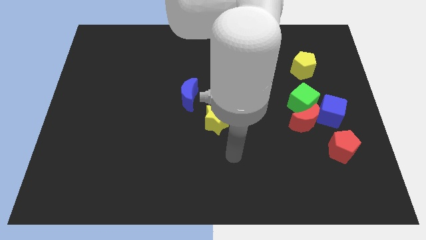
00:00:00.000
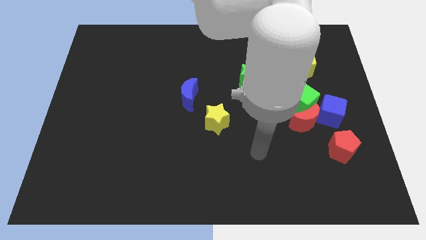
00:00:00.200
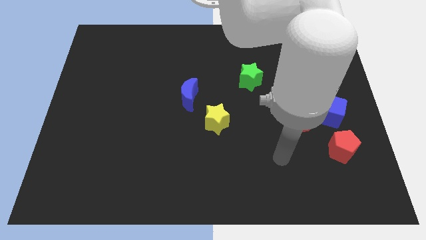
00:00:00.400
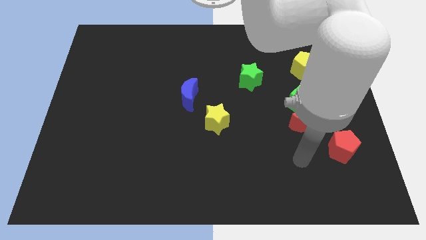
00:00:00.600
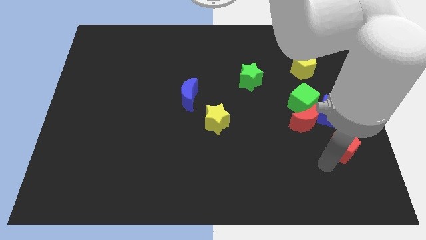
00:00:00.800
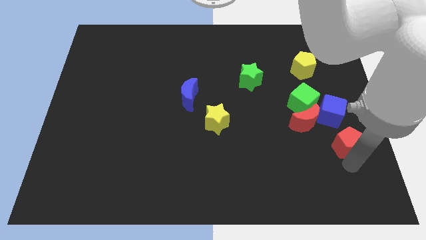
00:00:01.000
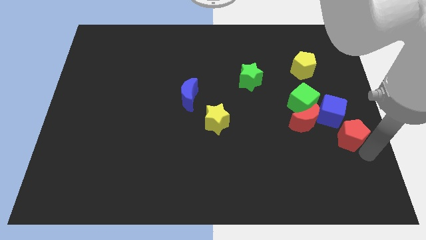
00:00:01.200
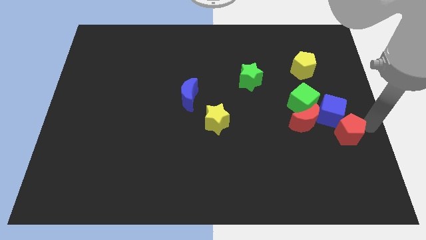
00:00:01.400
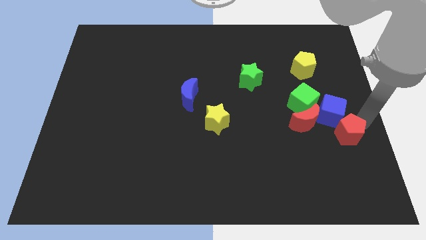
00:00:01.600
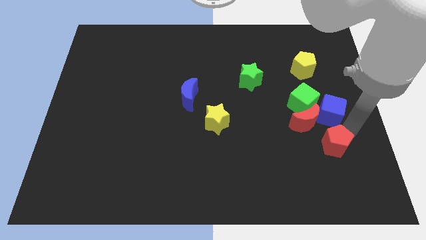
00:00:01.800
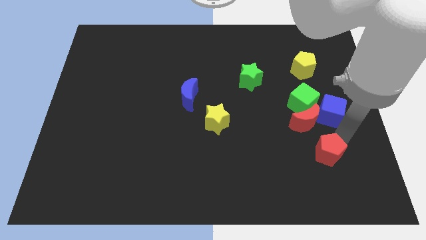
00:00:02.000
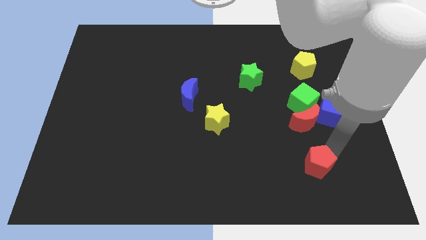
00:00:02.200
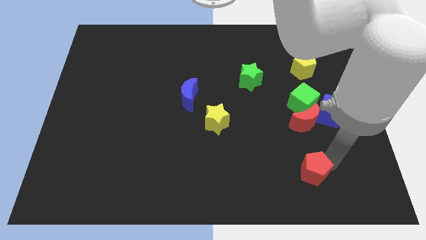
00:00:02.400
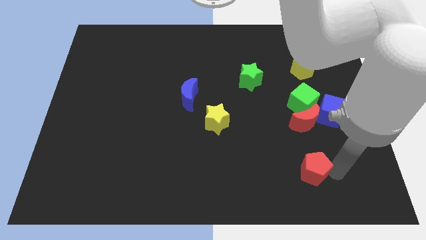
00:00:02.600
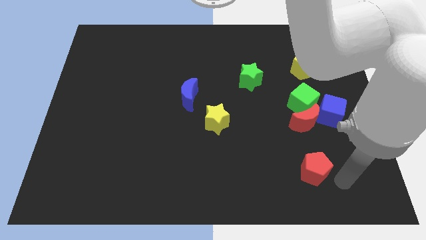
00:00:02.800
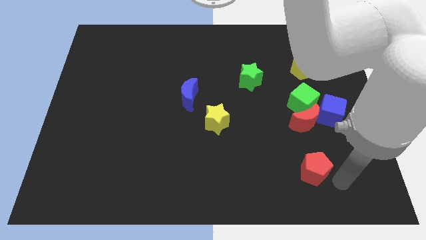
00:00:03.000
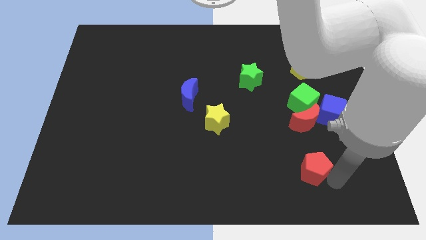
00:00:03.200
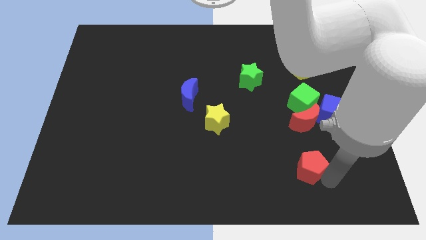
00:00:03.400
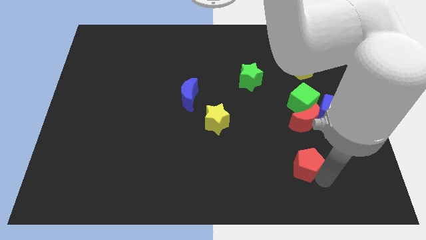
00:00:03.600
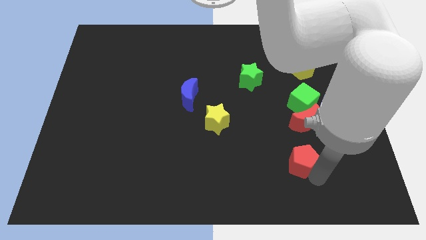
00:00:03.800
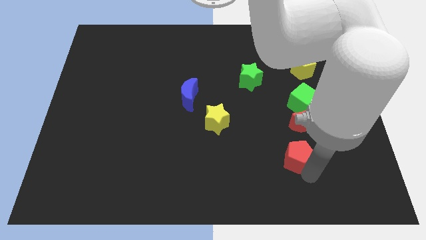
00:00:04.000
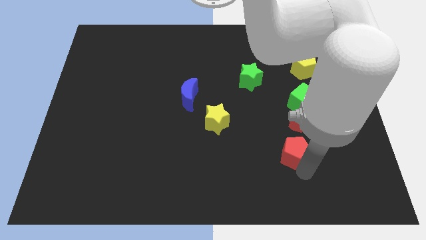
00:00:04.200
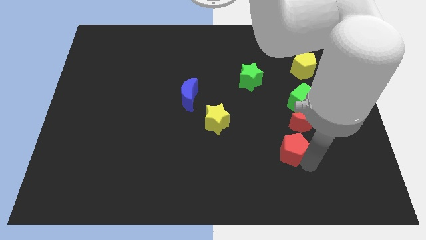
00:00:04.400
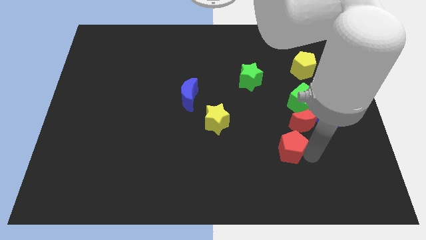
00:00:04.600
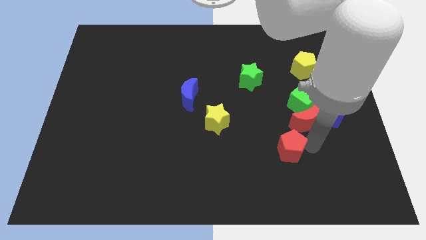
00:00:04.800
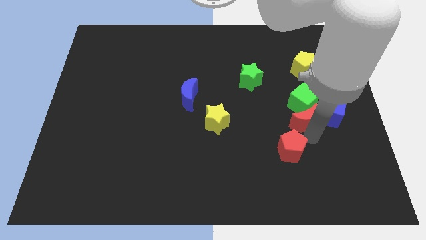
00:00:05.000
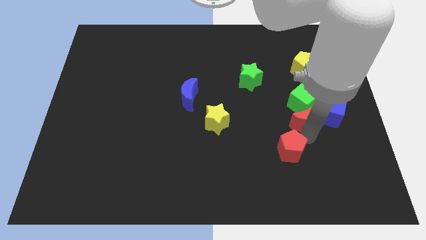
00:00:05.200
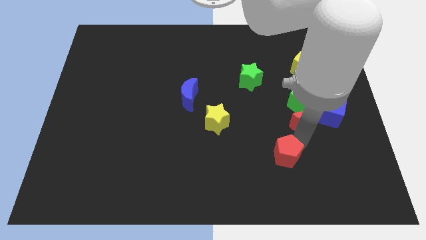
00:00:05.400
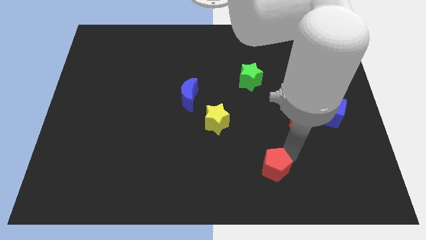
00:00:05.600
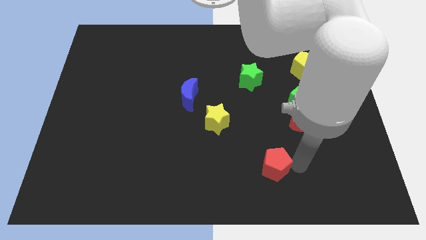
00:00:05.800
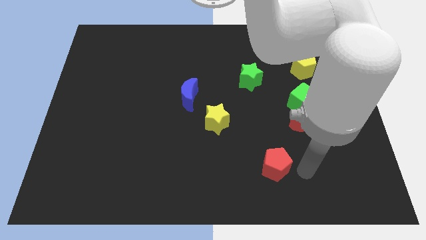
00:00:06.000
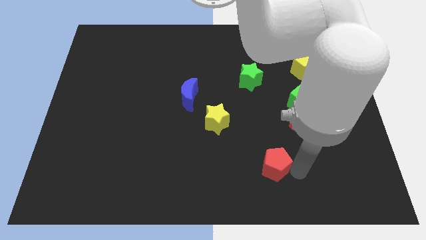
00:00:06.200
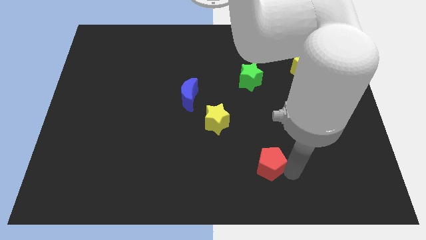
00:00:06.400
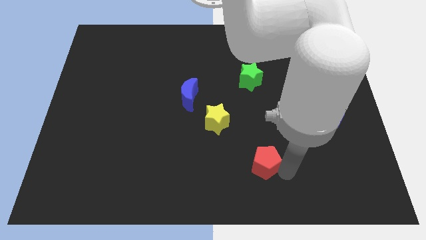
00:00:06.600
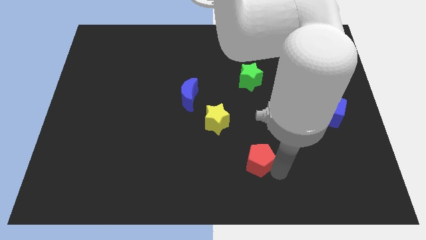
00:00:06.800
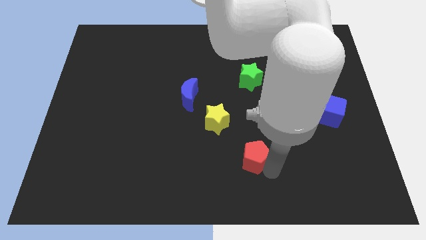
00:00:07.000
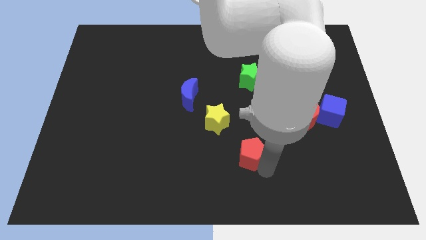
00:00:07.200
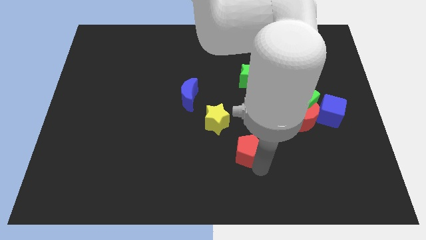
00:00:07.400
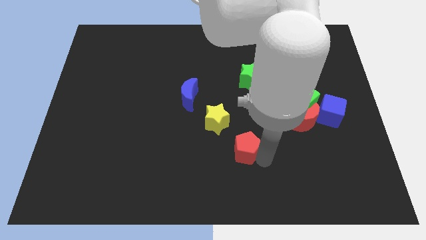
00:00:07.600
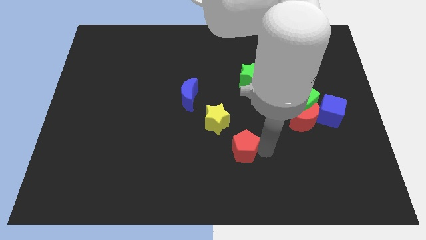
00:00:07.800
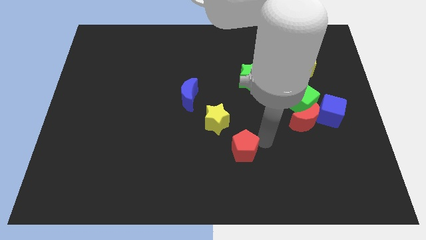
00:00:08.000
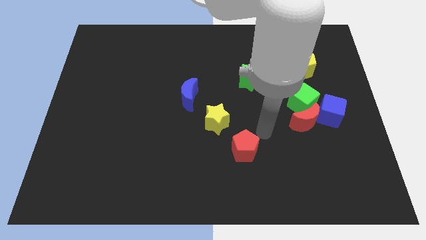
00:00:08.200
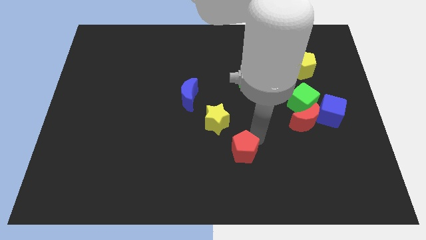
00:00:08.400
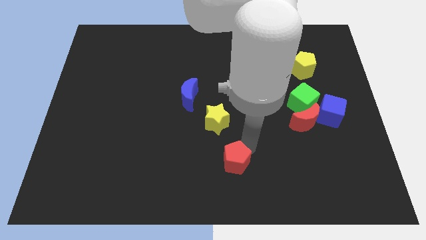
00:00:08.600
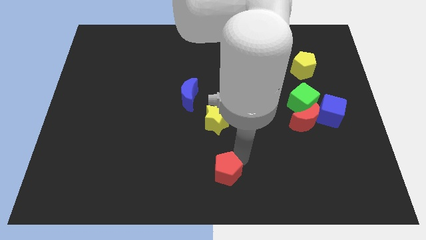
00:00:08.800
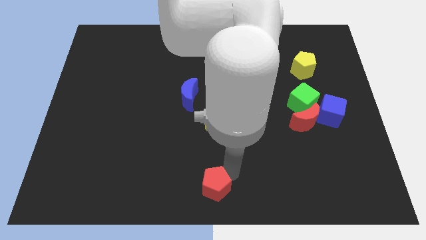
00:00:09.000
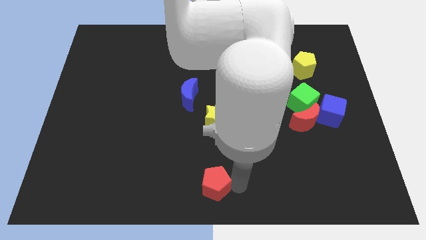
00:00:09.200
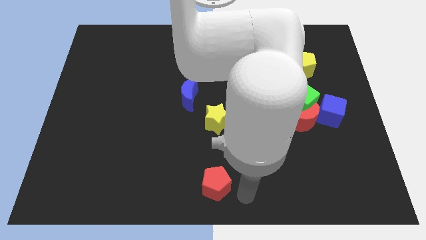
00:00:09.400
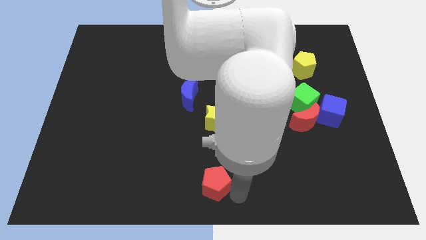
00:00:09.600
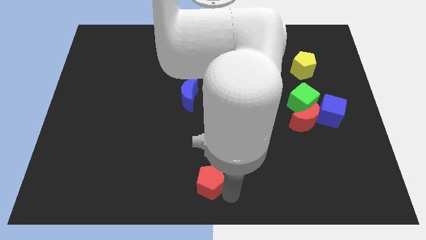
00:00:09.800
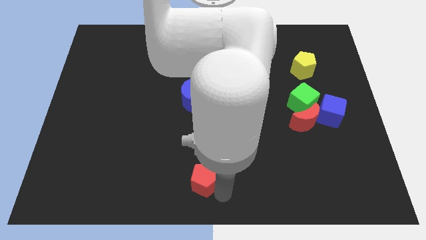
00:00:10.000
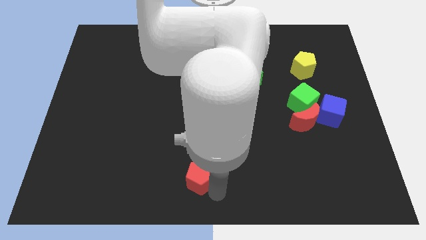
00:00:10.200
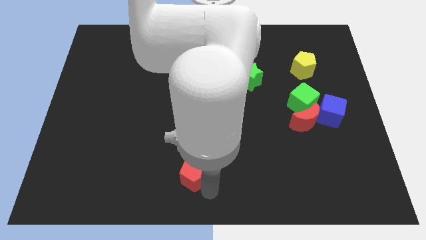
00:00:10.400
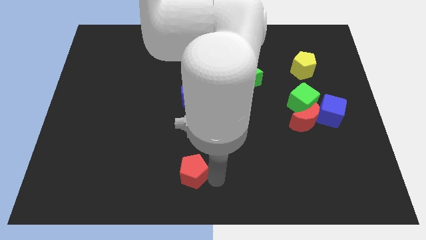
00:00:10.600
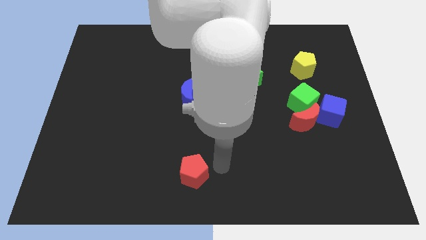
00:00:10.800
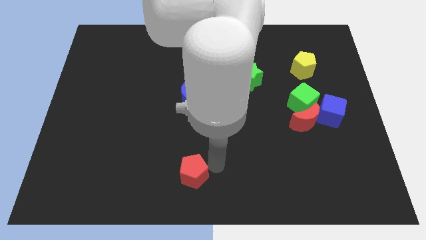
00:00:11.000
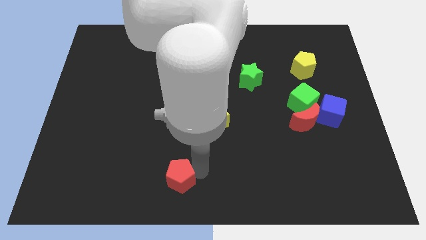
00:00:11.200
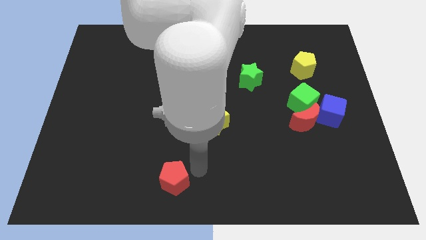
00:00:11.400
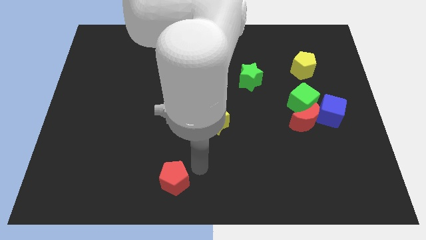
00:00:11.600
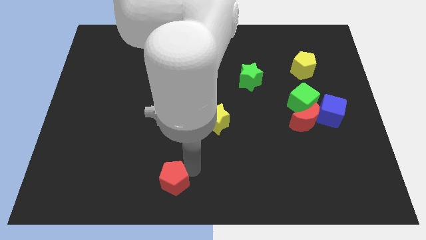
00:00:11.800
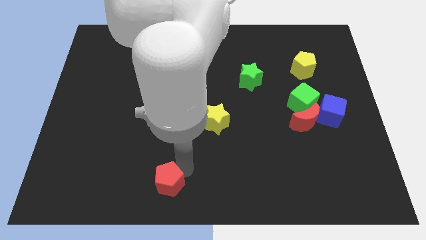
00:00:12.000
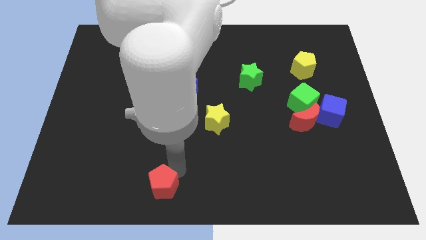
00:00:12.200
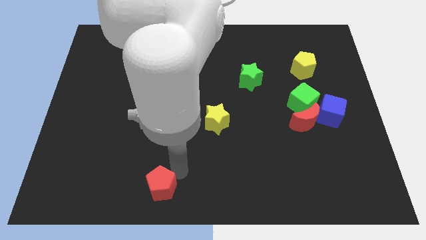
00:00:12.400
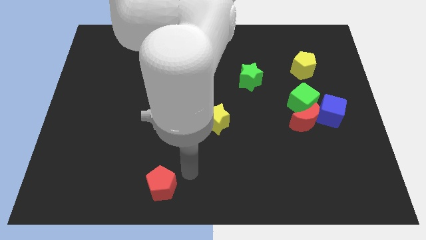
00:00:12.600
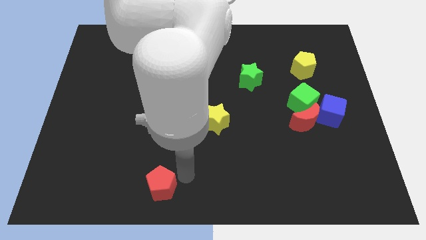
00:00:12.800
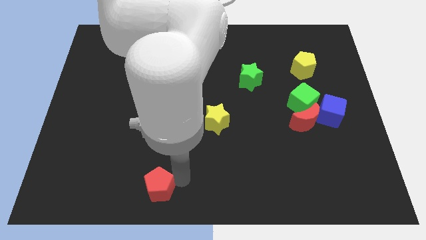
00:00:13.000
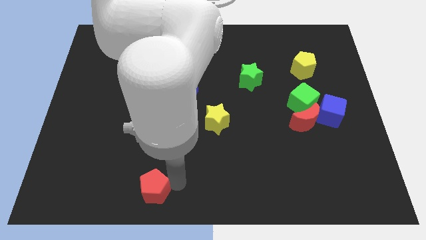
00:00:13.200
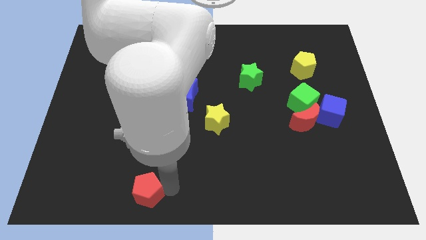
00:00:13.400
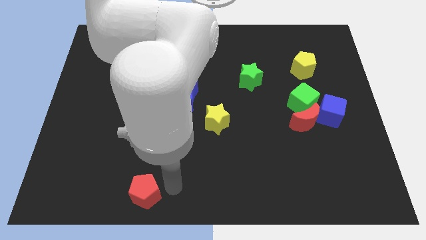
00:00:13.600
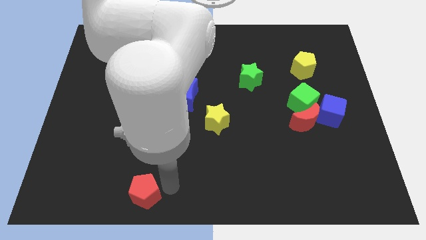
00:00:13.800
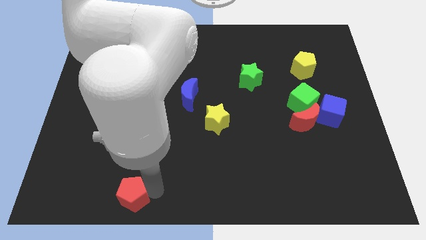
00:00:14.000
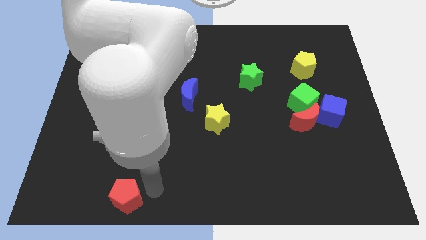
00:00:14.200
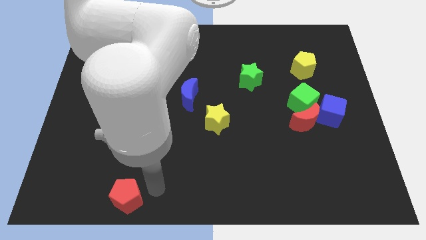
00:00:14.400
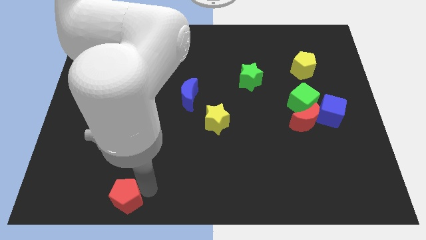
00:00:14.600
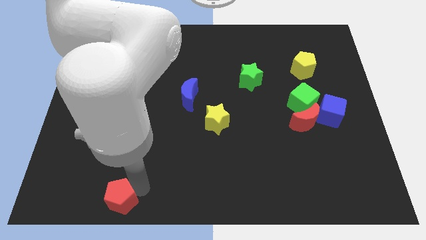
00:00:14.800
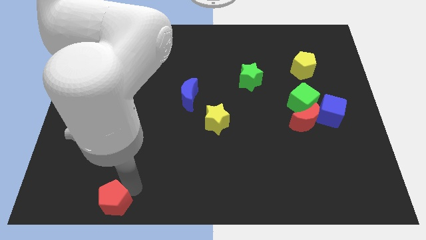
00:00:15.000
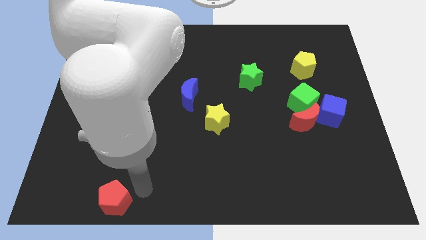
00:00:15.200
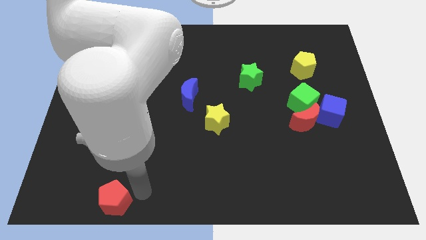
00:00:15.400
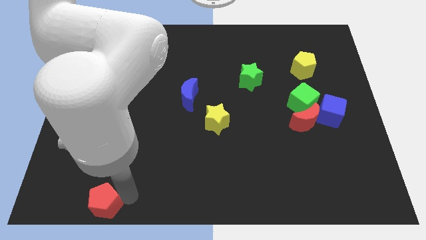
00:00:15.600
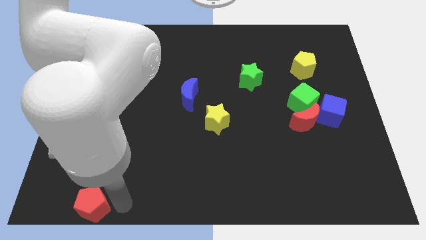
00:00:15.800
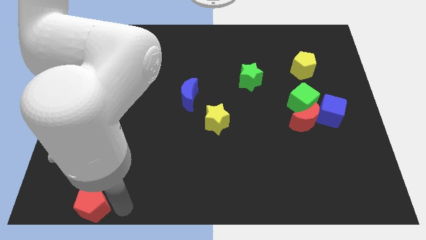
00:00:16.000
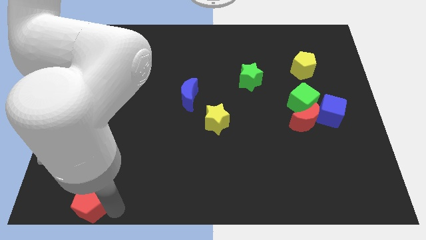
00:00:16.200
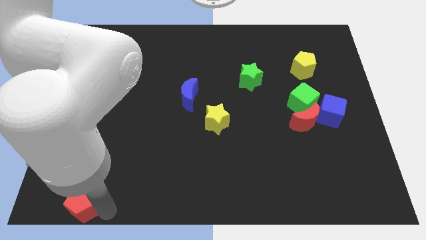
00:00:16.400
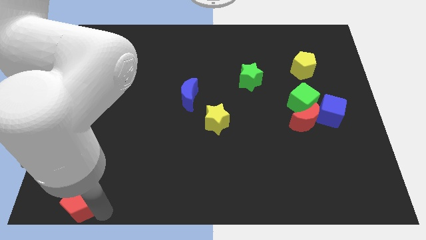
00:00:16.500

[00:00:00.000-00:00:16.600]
move the red pentagon to the bottom left corner
